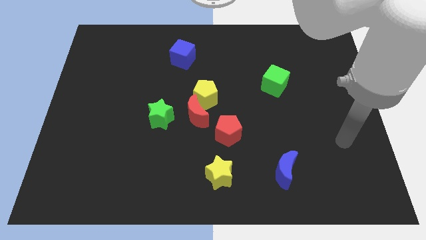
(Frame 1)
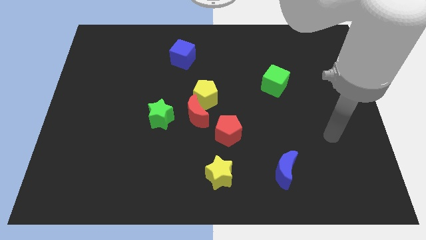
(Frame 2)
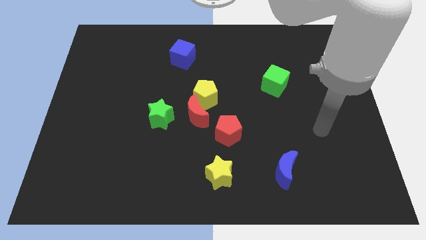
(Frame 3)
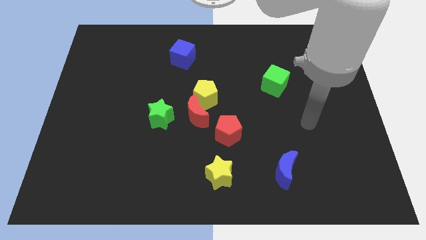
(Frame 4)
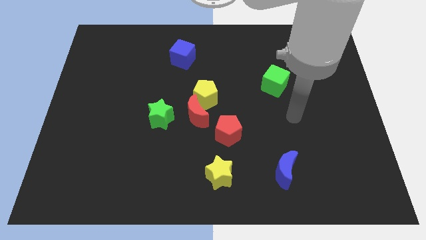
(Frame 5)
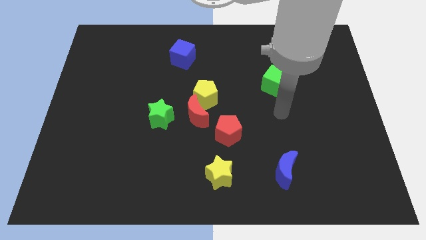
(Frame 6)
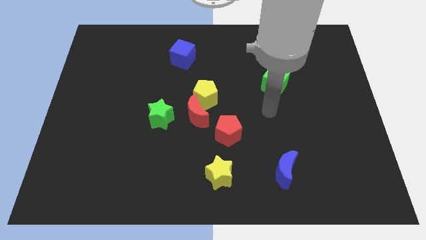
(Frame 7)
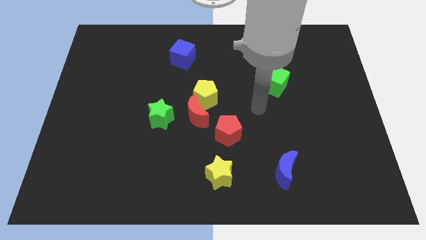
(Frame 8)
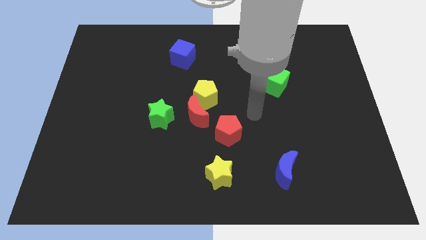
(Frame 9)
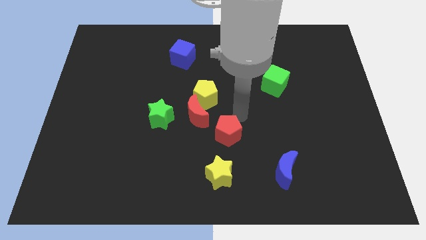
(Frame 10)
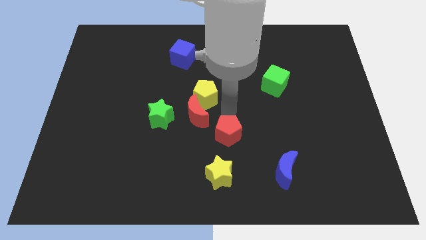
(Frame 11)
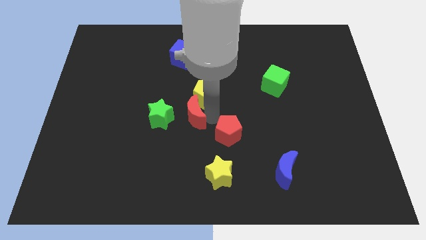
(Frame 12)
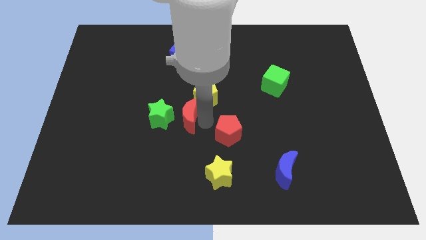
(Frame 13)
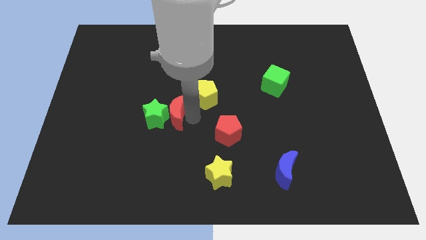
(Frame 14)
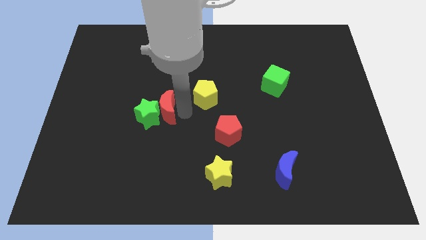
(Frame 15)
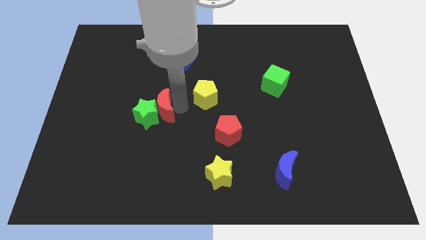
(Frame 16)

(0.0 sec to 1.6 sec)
separate the yellow pentagon from the red moon

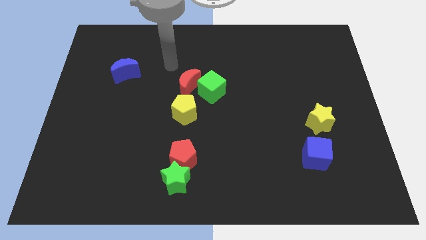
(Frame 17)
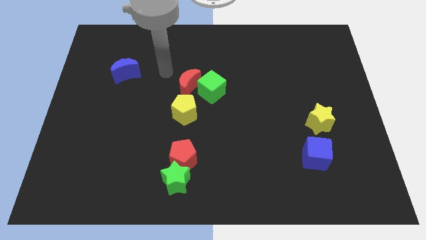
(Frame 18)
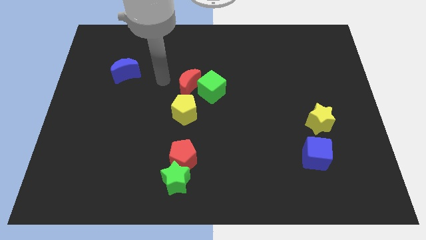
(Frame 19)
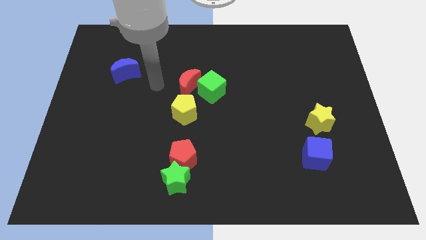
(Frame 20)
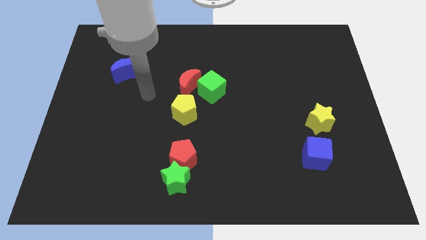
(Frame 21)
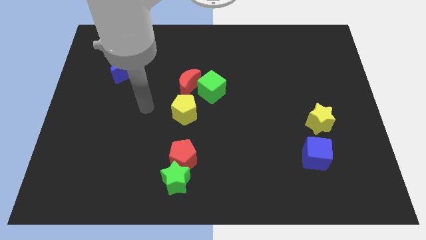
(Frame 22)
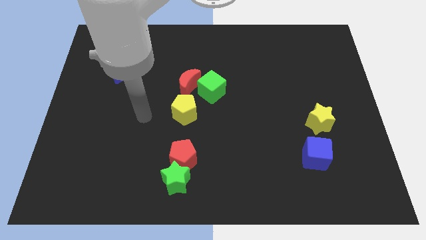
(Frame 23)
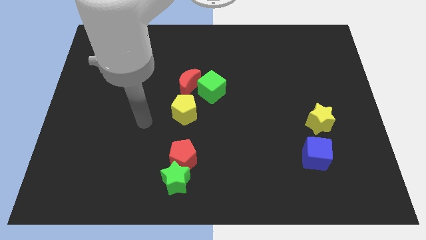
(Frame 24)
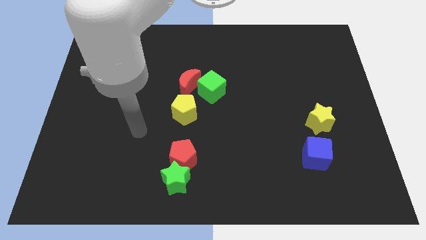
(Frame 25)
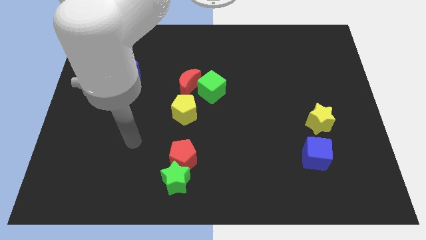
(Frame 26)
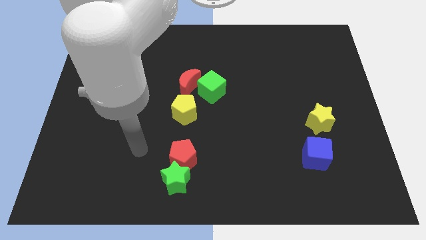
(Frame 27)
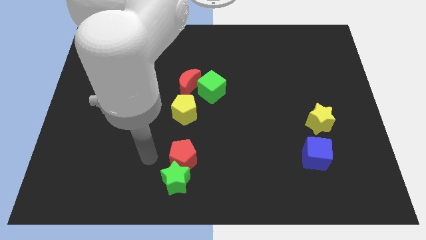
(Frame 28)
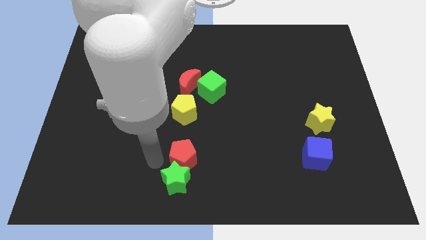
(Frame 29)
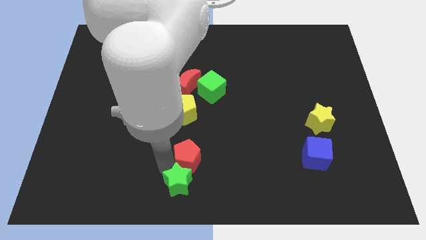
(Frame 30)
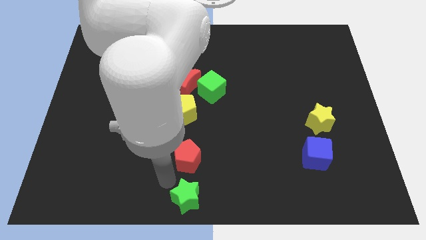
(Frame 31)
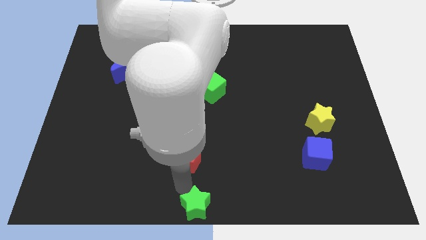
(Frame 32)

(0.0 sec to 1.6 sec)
pull the red pentagon apart from the green star

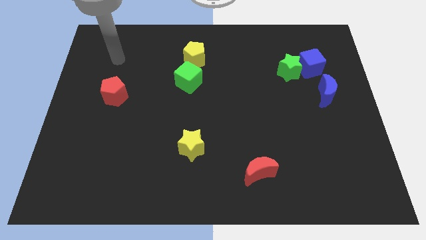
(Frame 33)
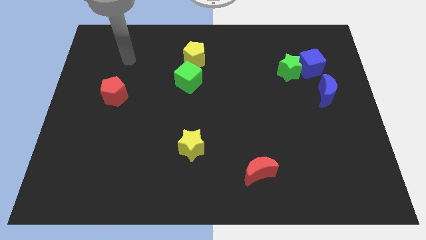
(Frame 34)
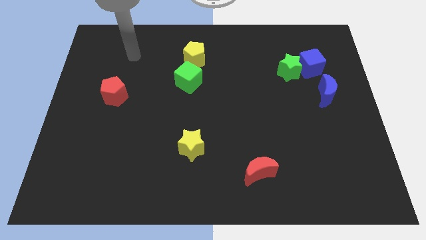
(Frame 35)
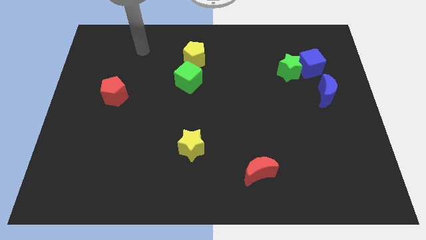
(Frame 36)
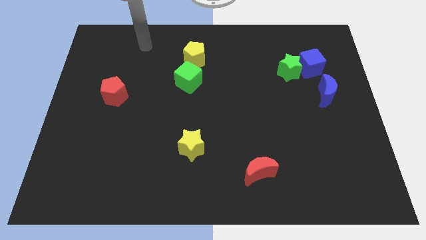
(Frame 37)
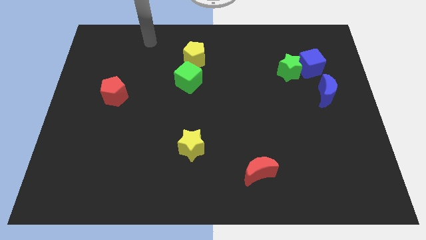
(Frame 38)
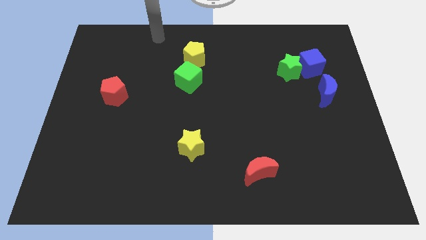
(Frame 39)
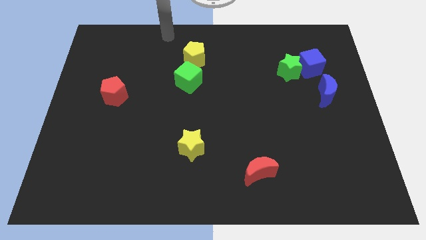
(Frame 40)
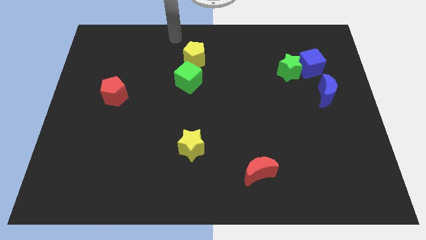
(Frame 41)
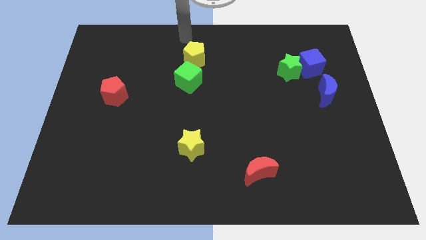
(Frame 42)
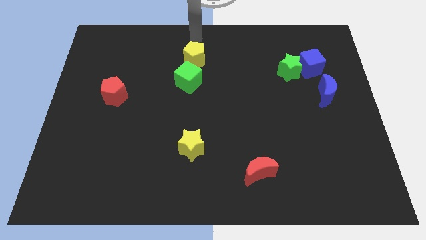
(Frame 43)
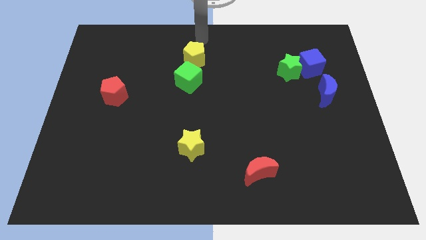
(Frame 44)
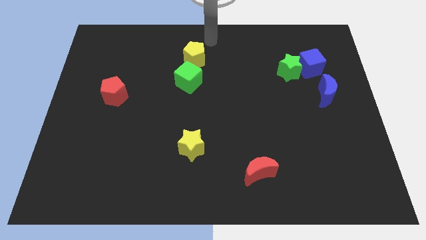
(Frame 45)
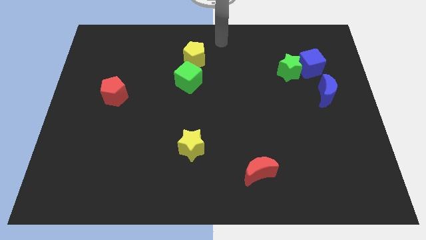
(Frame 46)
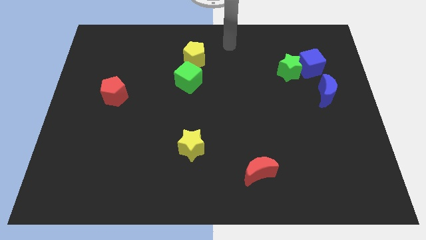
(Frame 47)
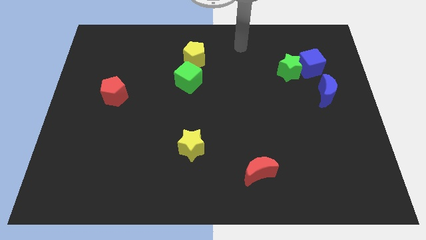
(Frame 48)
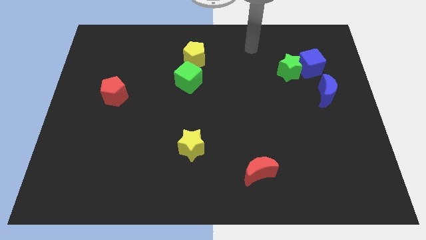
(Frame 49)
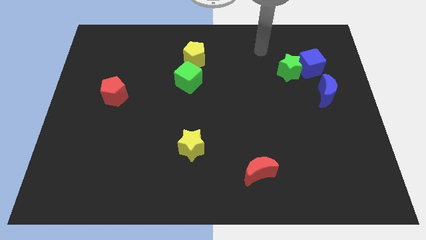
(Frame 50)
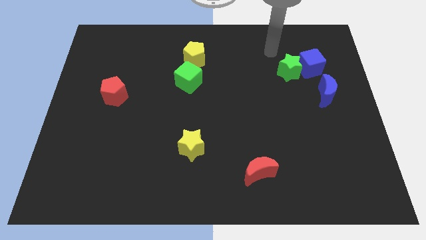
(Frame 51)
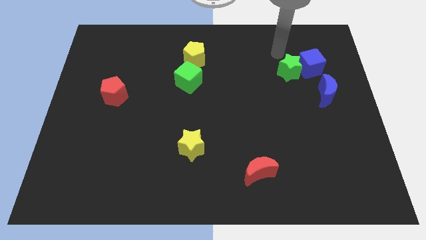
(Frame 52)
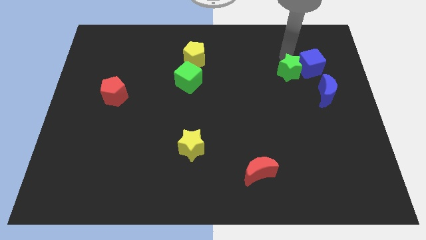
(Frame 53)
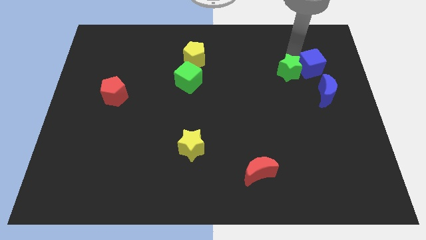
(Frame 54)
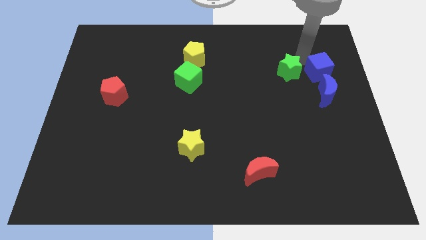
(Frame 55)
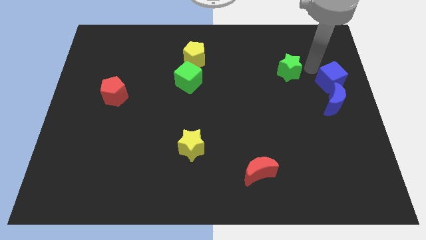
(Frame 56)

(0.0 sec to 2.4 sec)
pull the green star apart from the blue cube

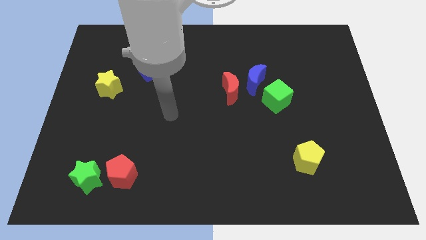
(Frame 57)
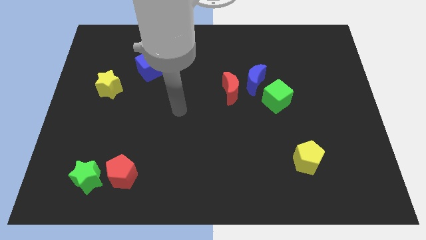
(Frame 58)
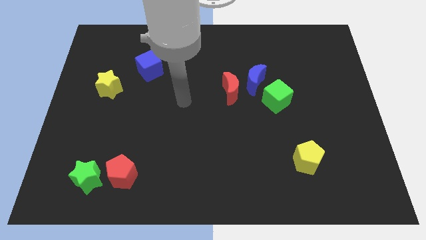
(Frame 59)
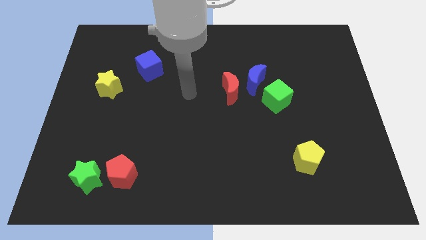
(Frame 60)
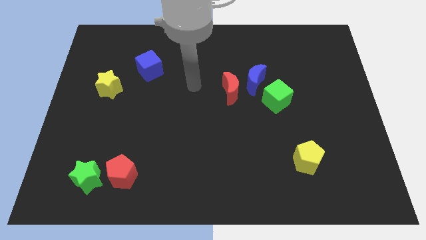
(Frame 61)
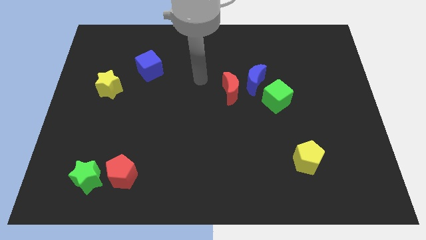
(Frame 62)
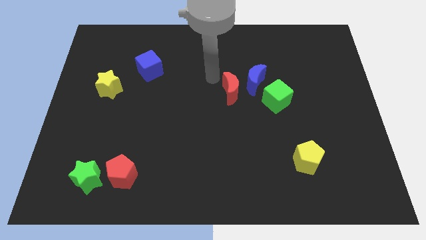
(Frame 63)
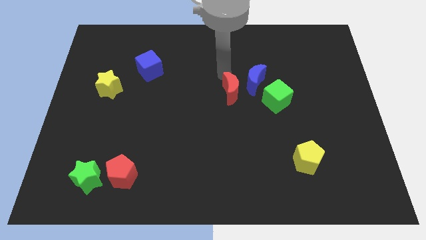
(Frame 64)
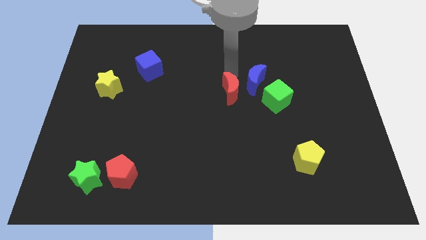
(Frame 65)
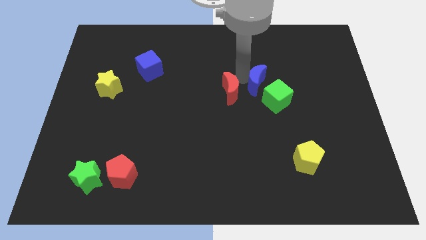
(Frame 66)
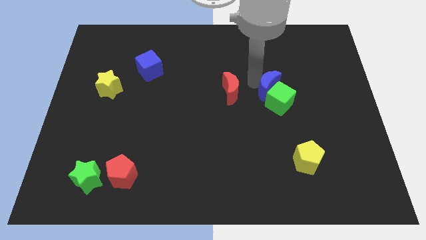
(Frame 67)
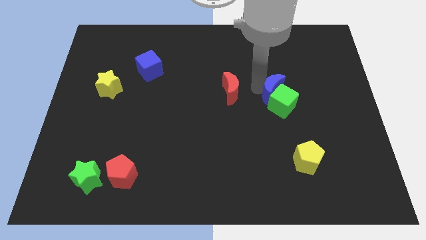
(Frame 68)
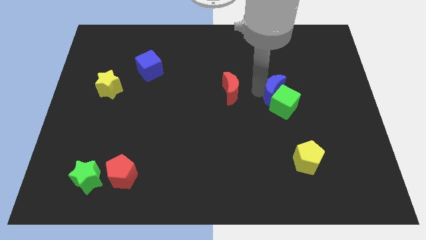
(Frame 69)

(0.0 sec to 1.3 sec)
separate the red moon from the blue moon

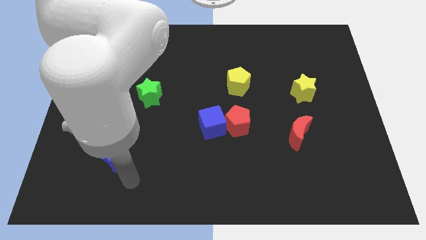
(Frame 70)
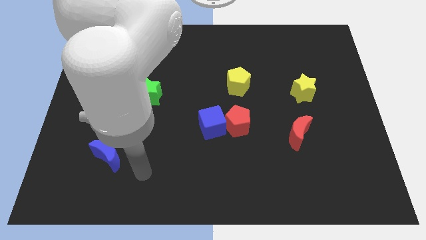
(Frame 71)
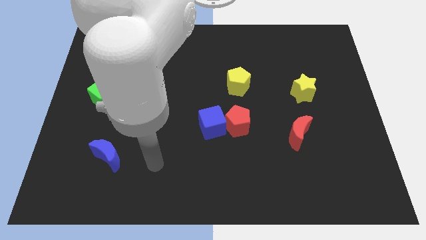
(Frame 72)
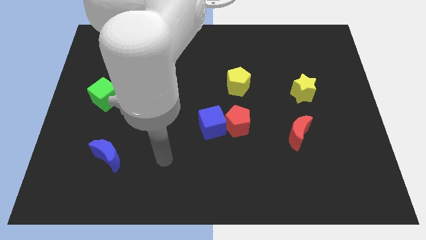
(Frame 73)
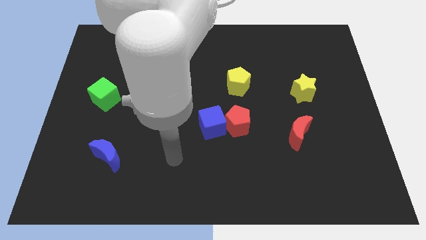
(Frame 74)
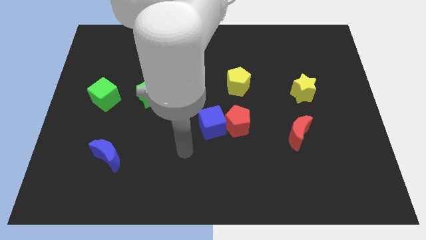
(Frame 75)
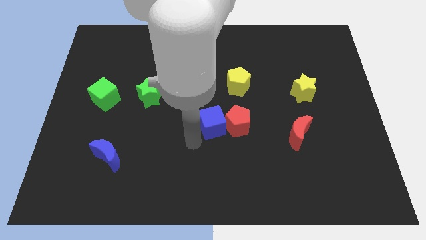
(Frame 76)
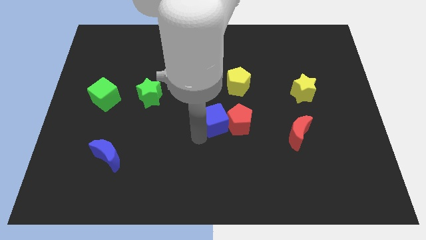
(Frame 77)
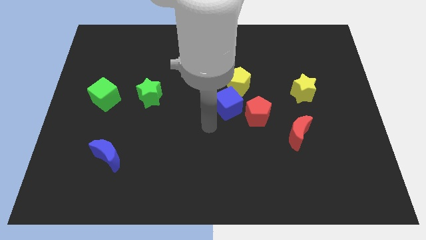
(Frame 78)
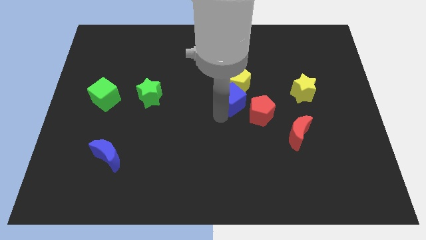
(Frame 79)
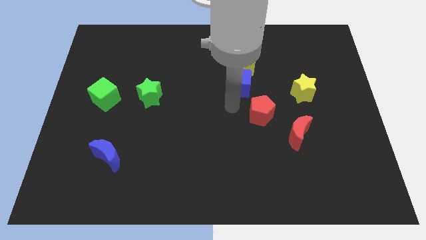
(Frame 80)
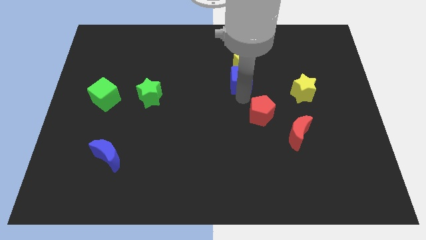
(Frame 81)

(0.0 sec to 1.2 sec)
move the red pentagon away from the blue cube

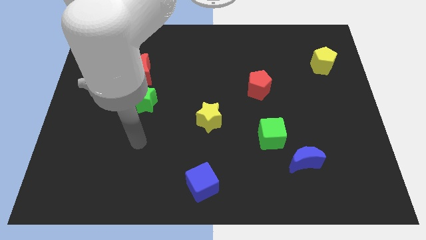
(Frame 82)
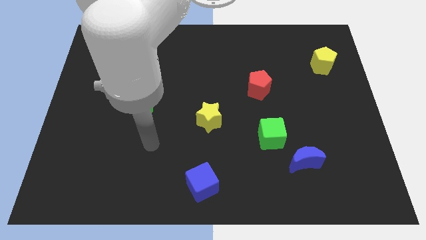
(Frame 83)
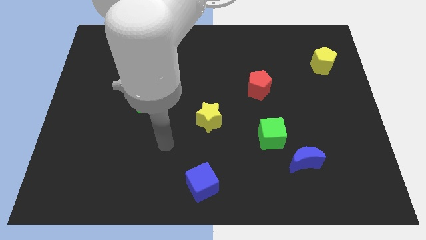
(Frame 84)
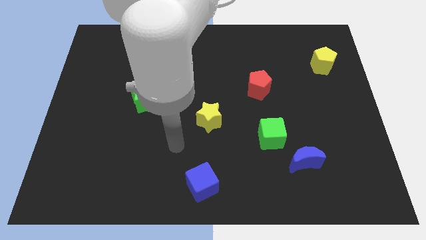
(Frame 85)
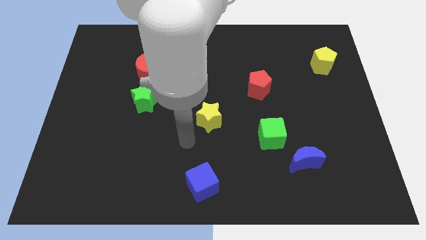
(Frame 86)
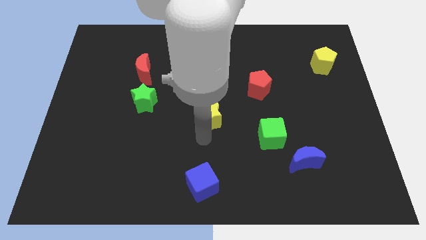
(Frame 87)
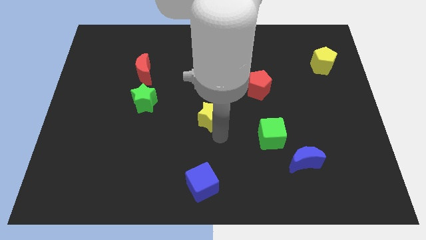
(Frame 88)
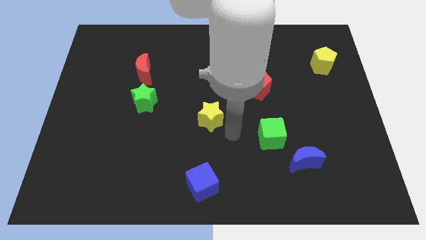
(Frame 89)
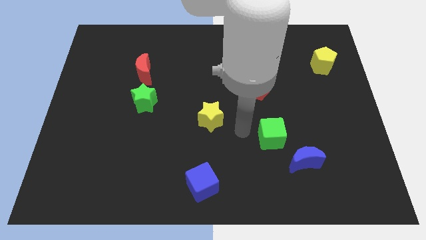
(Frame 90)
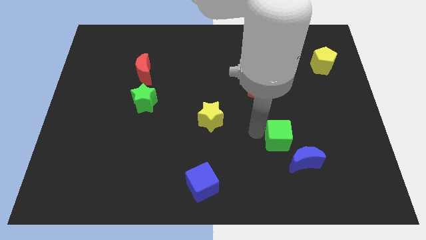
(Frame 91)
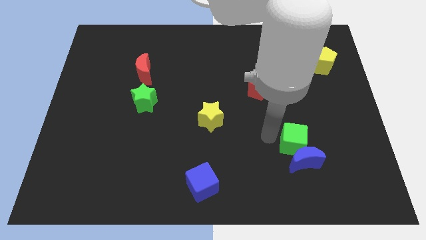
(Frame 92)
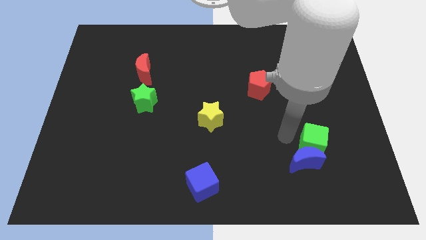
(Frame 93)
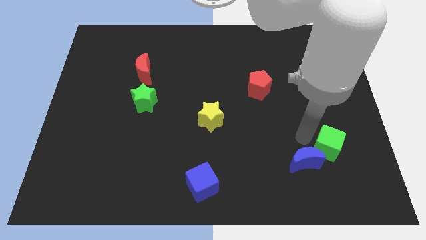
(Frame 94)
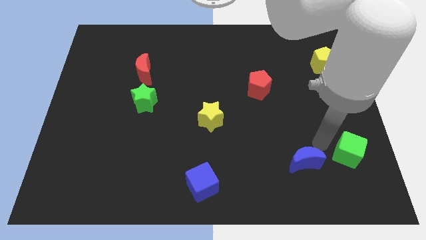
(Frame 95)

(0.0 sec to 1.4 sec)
separate the blue moon from the green cube
